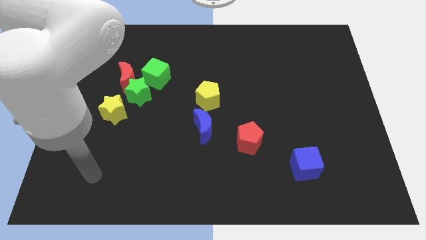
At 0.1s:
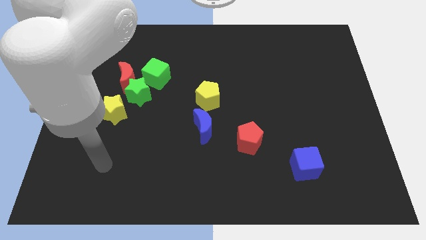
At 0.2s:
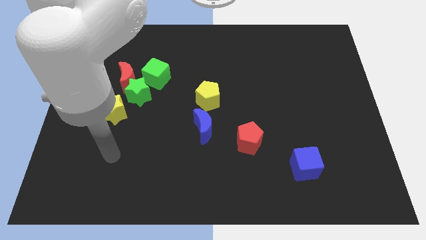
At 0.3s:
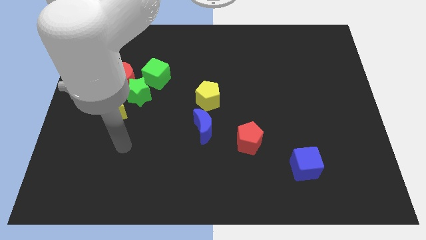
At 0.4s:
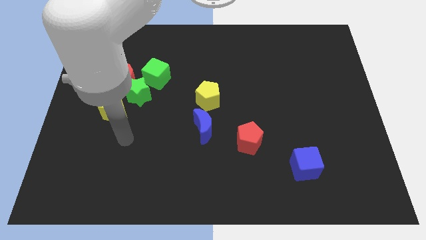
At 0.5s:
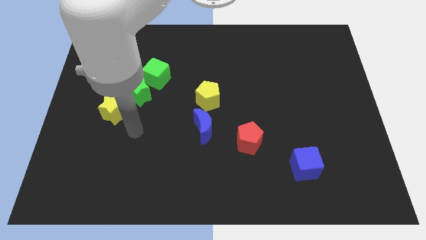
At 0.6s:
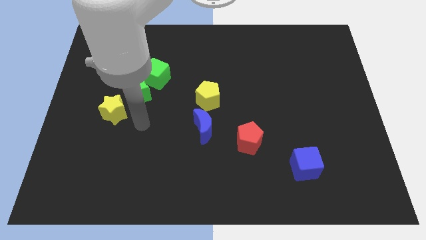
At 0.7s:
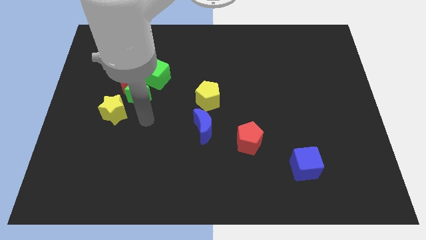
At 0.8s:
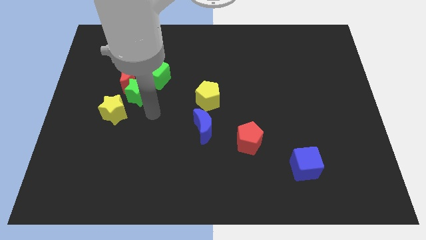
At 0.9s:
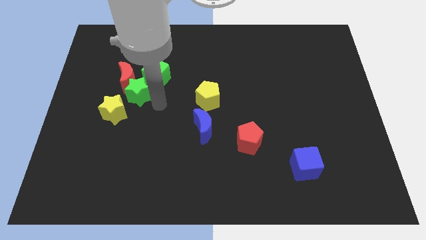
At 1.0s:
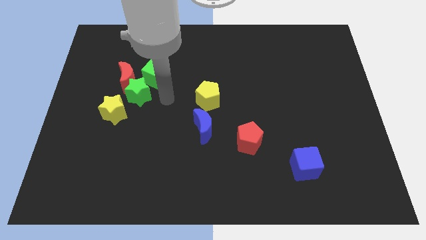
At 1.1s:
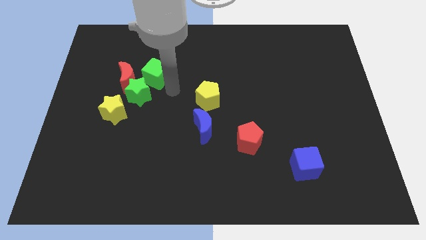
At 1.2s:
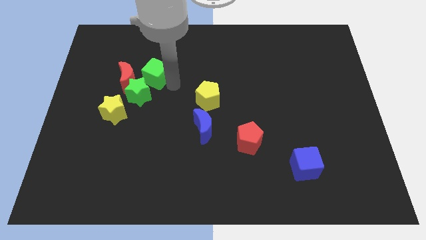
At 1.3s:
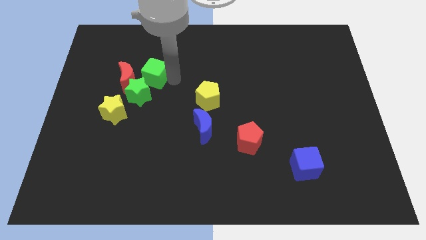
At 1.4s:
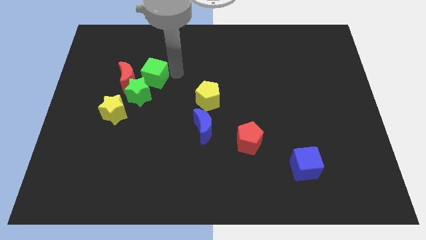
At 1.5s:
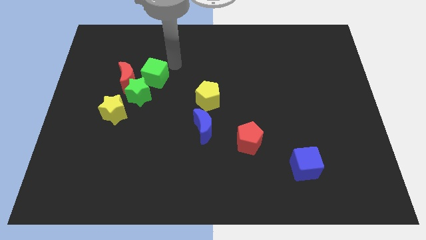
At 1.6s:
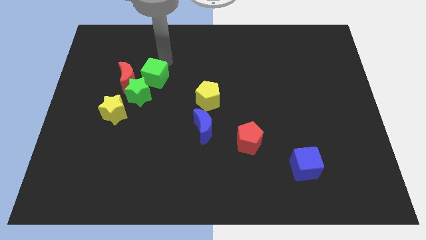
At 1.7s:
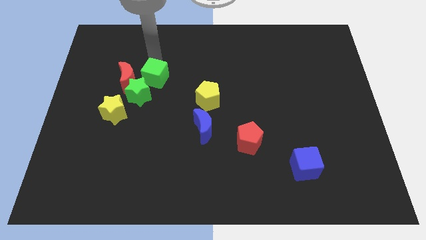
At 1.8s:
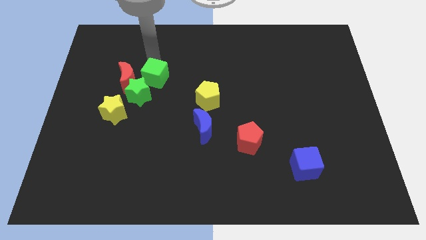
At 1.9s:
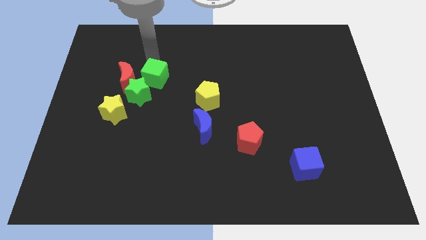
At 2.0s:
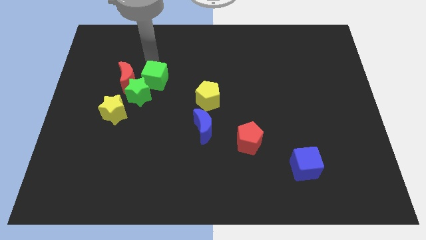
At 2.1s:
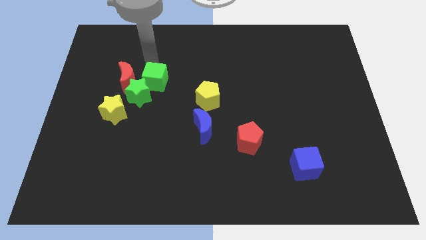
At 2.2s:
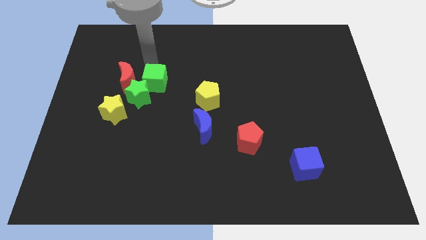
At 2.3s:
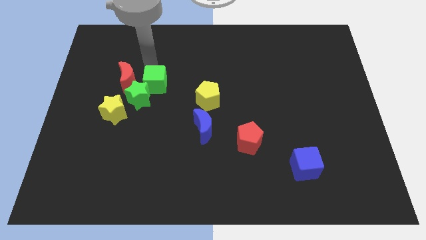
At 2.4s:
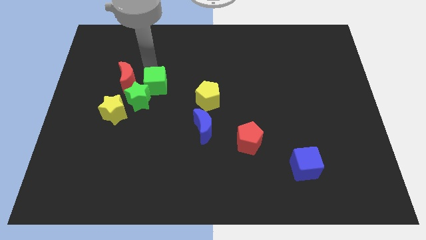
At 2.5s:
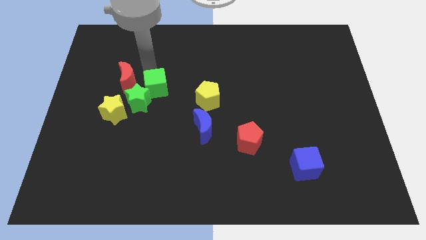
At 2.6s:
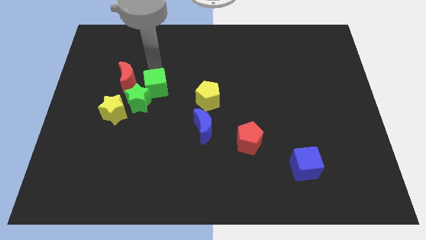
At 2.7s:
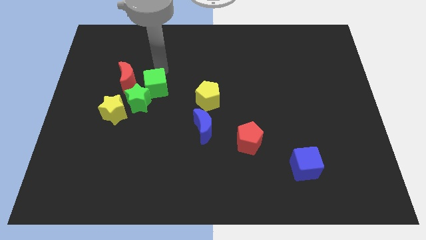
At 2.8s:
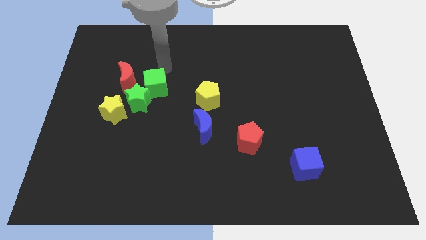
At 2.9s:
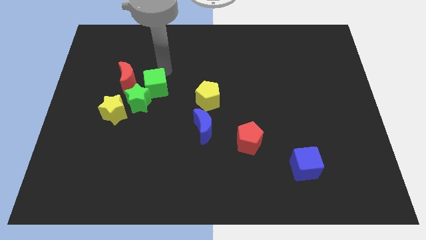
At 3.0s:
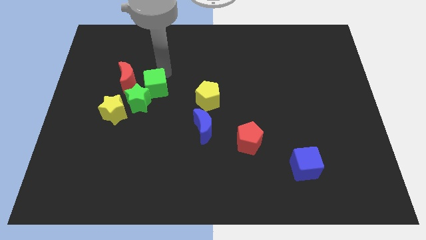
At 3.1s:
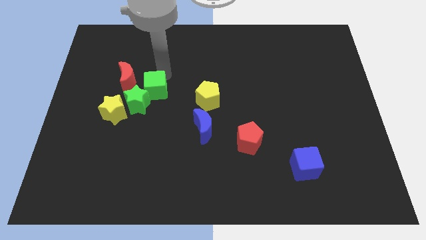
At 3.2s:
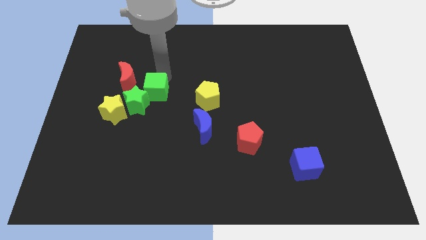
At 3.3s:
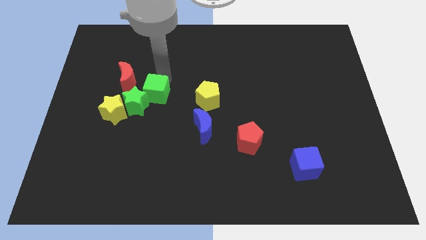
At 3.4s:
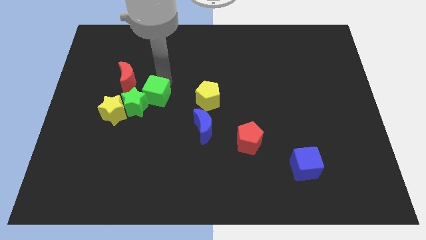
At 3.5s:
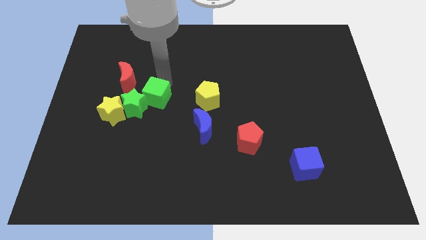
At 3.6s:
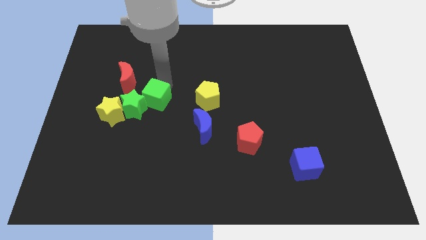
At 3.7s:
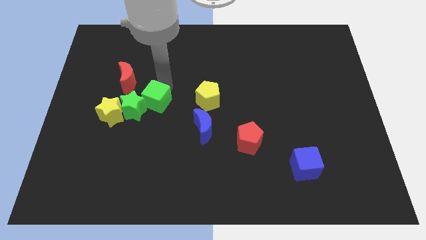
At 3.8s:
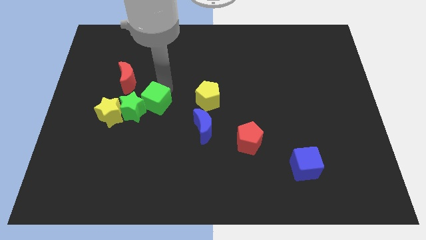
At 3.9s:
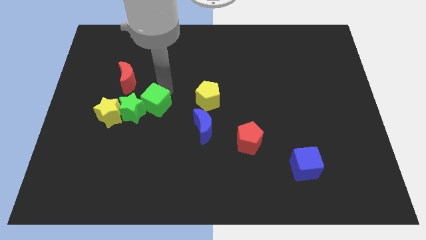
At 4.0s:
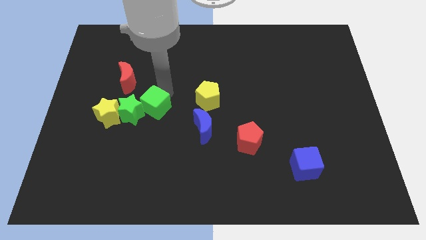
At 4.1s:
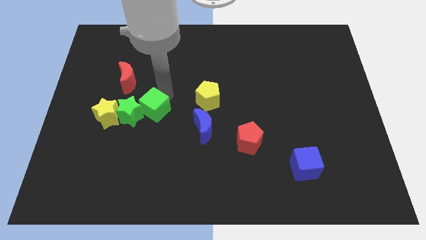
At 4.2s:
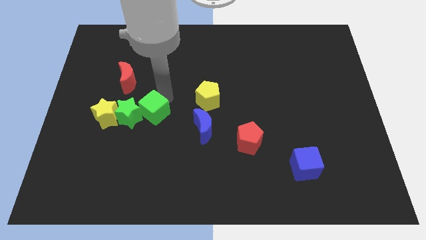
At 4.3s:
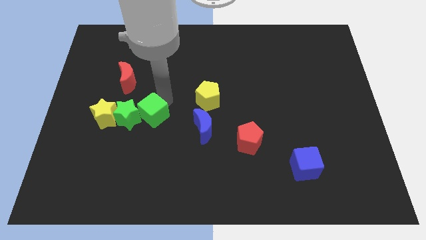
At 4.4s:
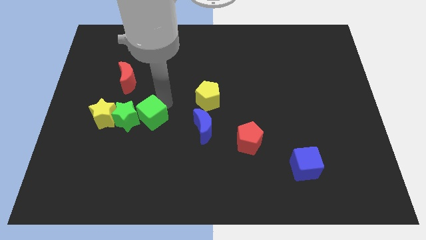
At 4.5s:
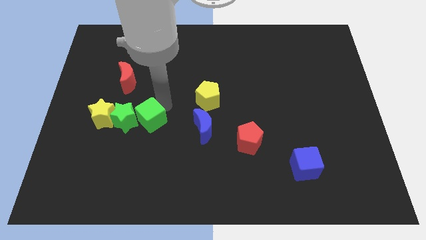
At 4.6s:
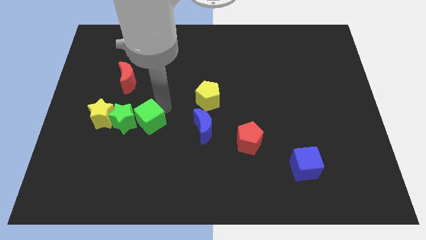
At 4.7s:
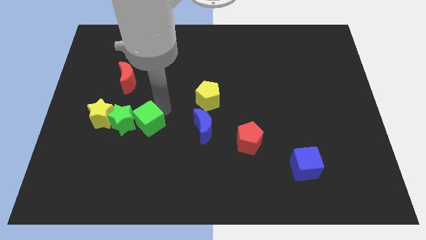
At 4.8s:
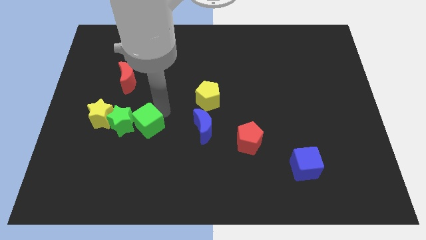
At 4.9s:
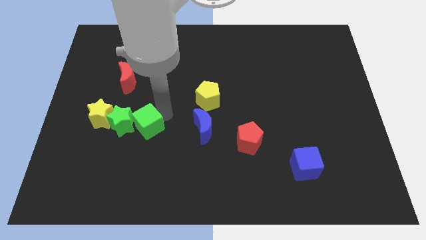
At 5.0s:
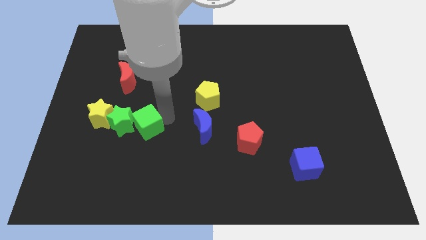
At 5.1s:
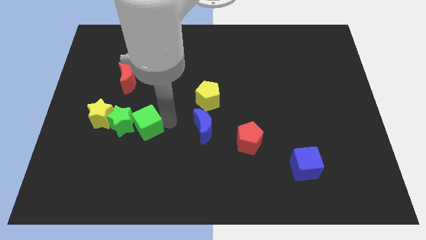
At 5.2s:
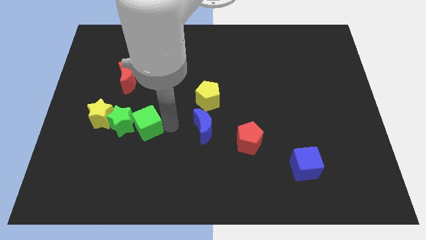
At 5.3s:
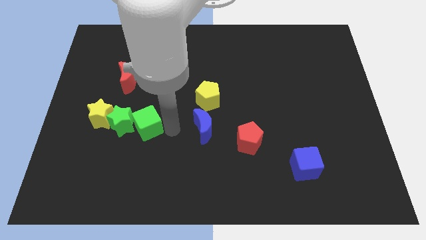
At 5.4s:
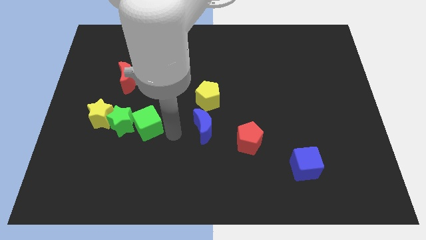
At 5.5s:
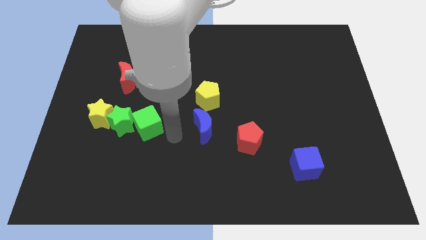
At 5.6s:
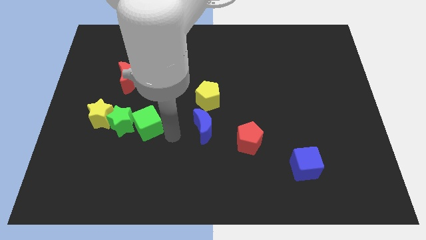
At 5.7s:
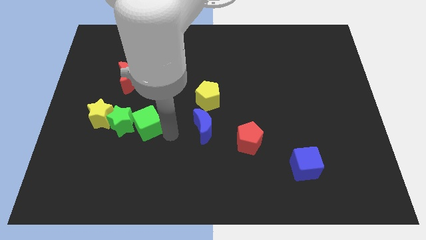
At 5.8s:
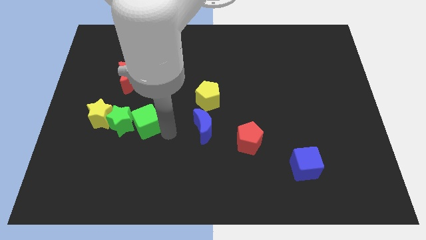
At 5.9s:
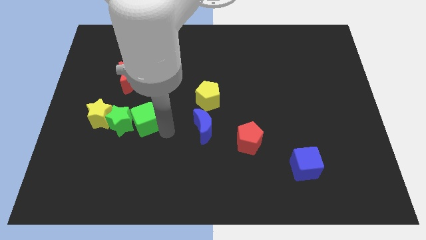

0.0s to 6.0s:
push the green cube down and then left a little bit

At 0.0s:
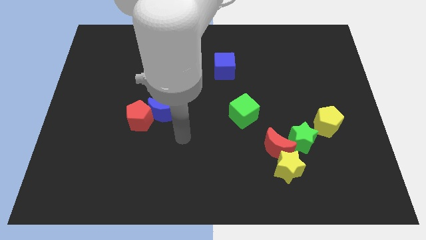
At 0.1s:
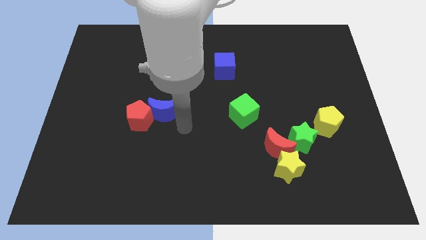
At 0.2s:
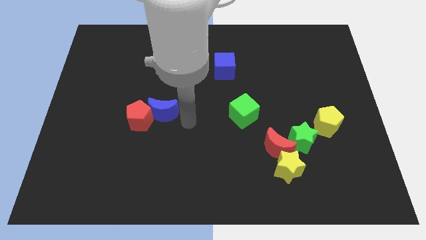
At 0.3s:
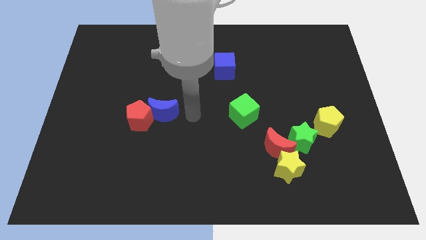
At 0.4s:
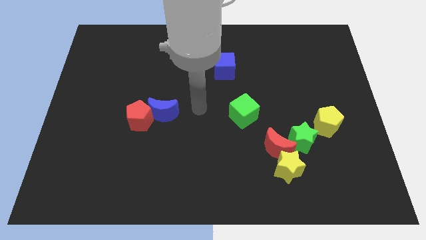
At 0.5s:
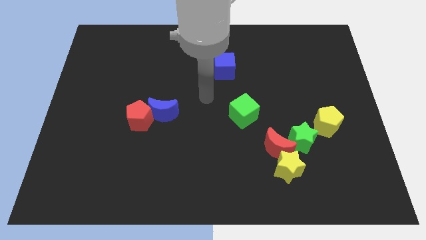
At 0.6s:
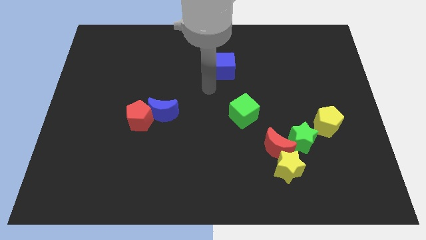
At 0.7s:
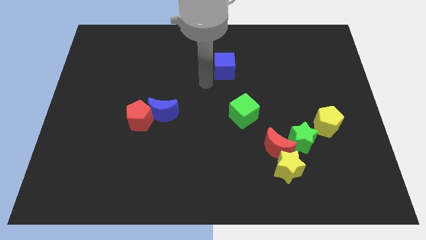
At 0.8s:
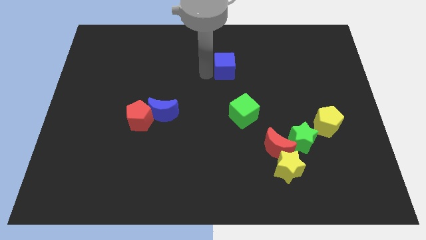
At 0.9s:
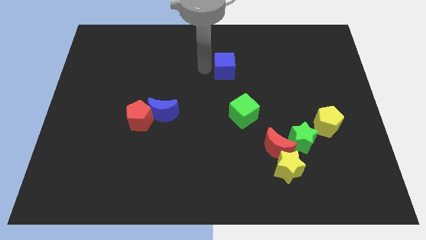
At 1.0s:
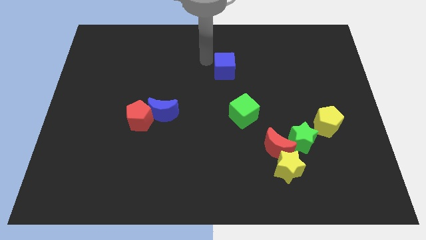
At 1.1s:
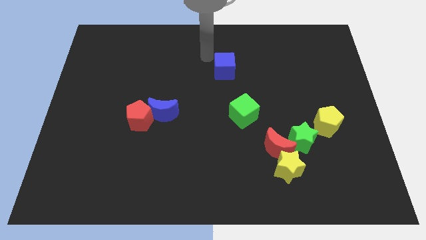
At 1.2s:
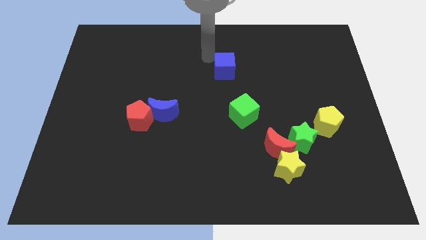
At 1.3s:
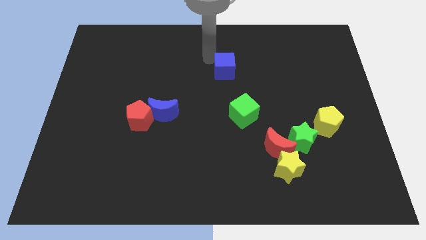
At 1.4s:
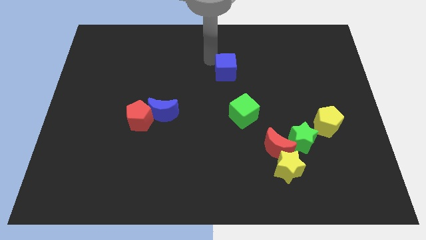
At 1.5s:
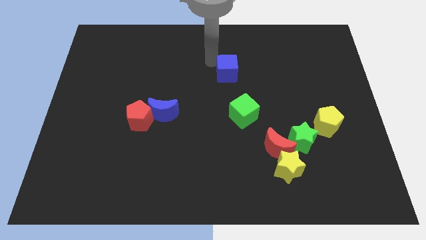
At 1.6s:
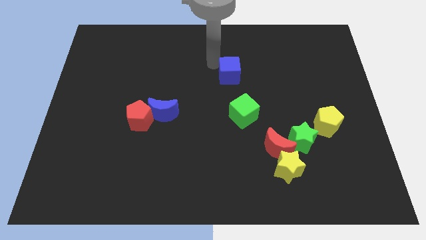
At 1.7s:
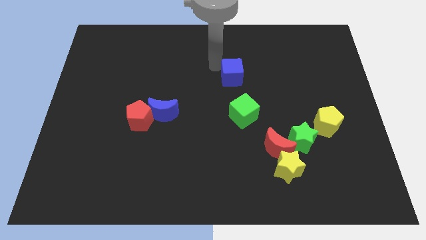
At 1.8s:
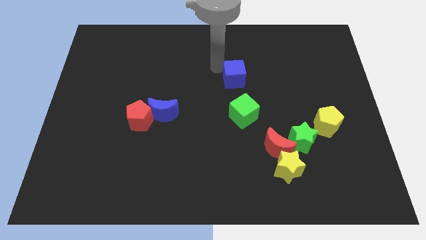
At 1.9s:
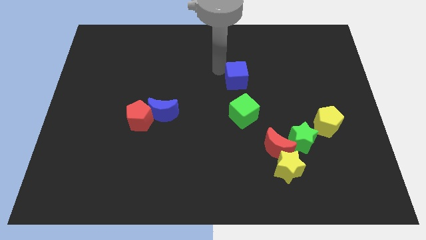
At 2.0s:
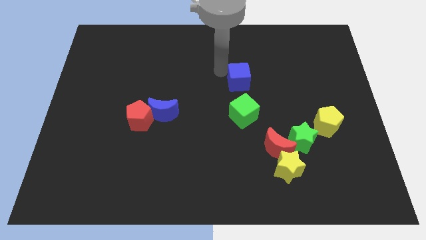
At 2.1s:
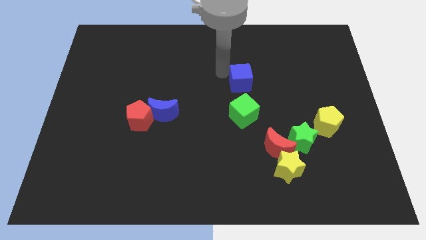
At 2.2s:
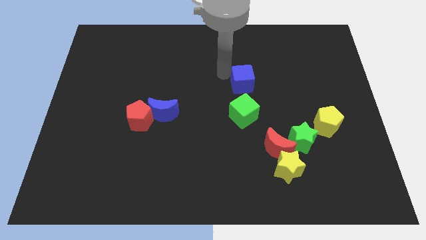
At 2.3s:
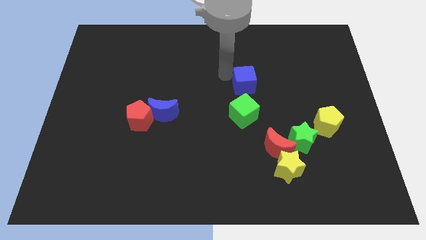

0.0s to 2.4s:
move the blue cube a bit down and to the right

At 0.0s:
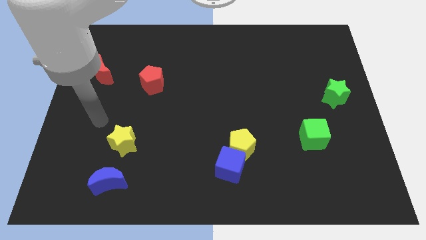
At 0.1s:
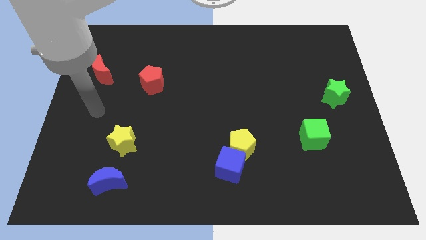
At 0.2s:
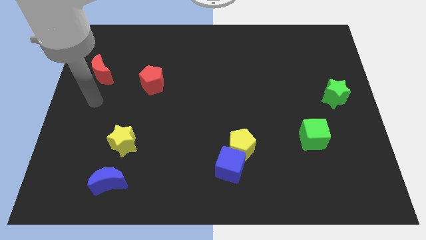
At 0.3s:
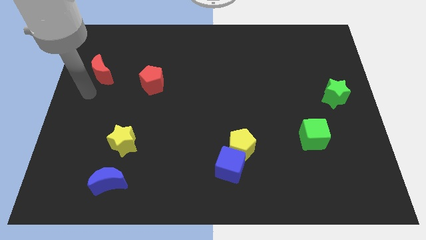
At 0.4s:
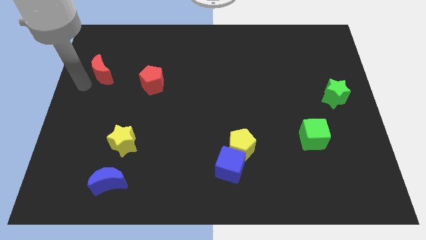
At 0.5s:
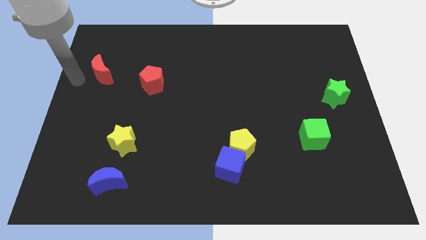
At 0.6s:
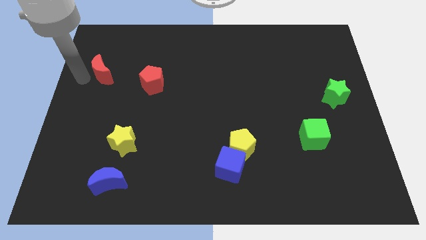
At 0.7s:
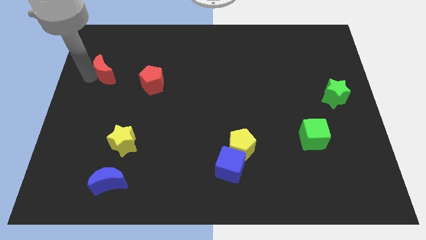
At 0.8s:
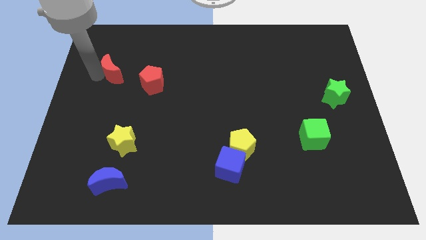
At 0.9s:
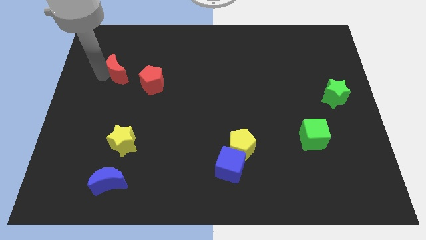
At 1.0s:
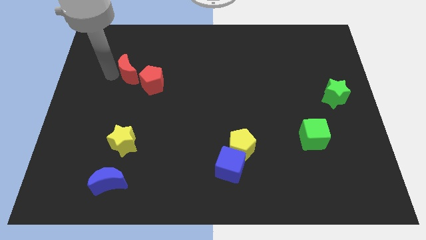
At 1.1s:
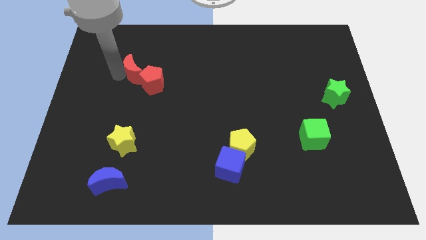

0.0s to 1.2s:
slide the red moon right a little
